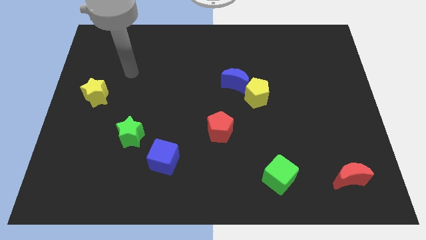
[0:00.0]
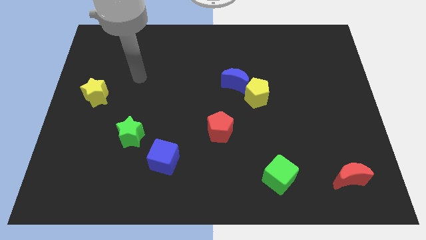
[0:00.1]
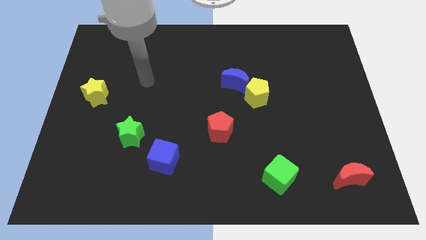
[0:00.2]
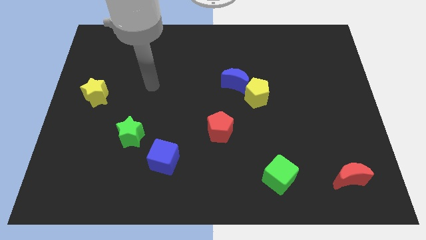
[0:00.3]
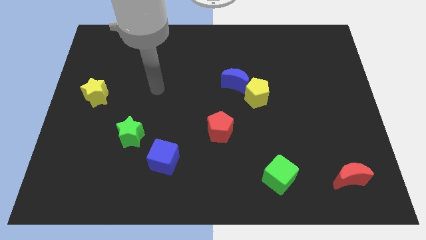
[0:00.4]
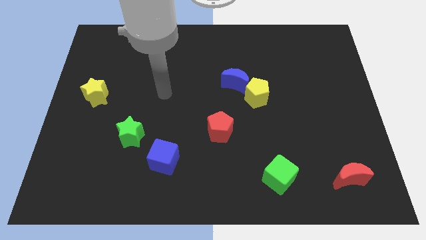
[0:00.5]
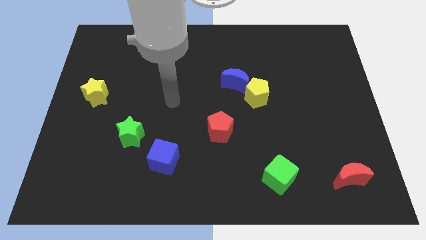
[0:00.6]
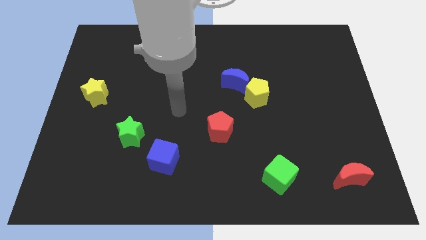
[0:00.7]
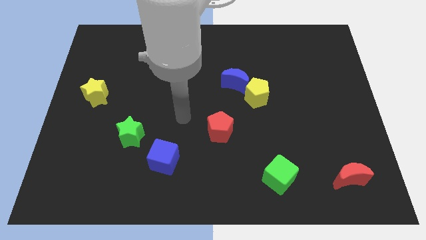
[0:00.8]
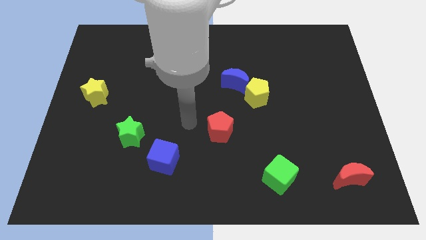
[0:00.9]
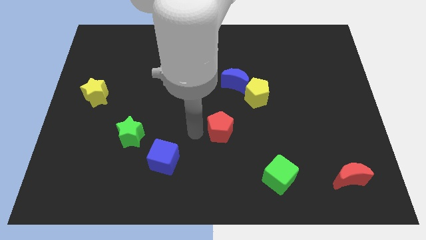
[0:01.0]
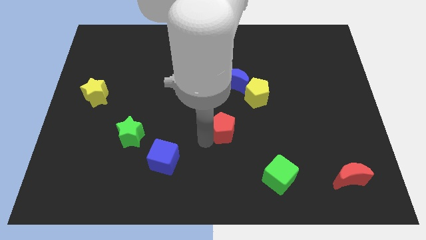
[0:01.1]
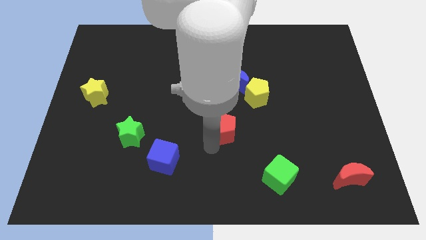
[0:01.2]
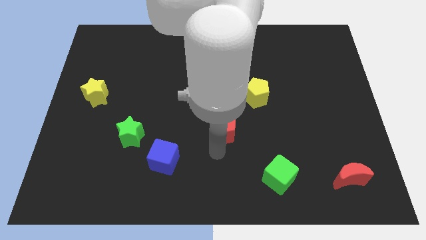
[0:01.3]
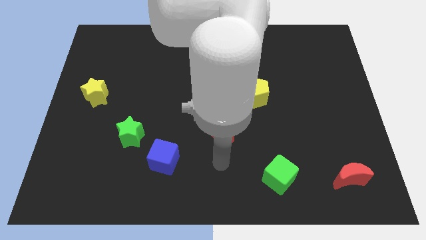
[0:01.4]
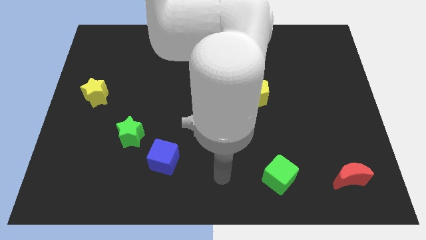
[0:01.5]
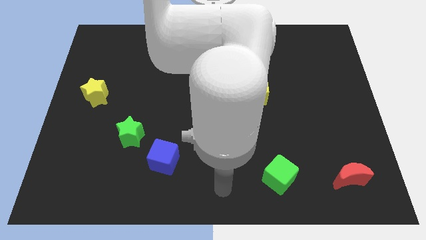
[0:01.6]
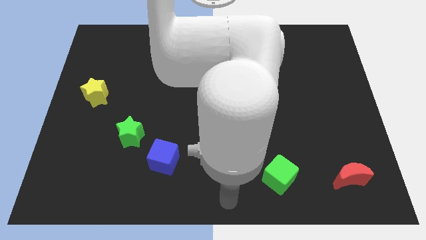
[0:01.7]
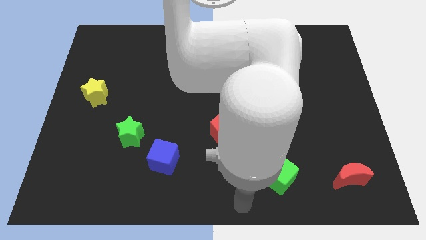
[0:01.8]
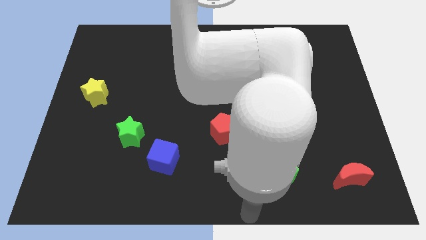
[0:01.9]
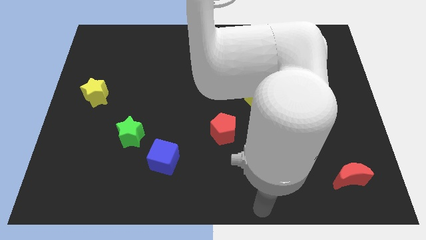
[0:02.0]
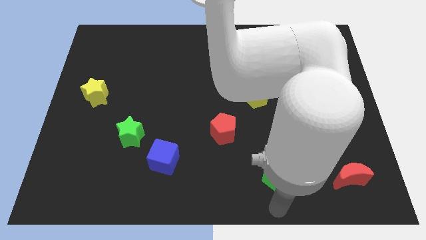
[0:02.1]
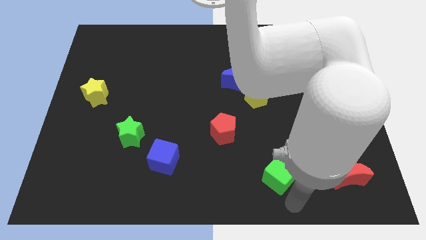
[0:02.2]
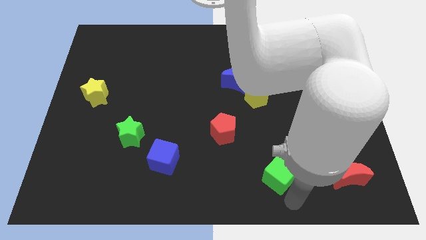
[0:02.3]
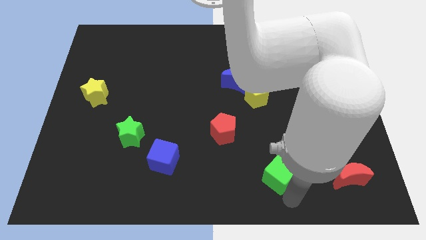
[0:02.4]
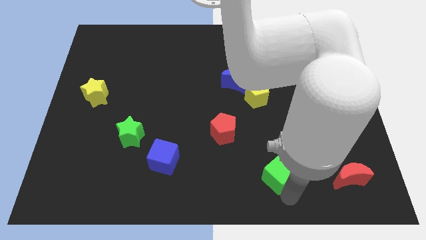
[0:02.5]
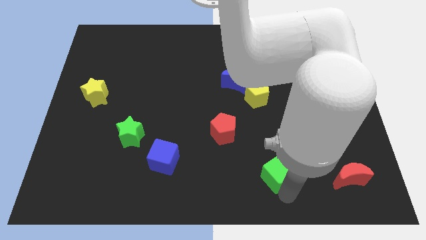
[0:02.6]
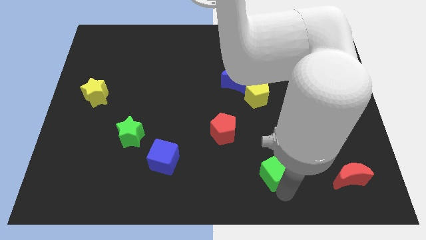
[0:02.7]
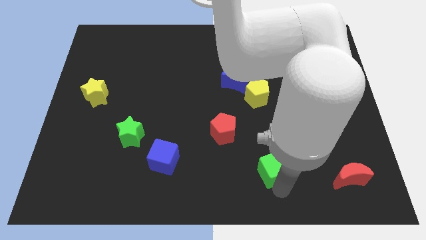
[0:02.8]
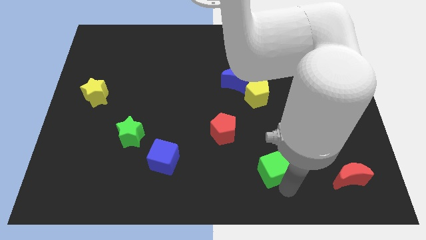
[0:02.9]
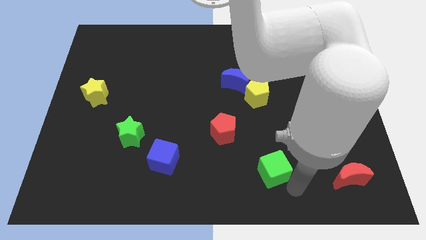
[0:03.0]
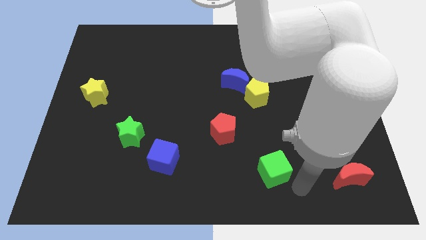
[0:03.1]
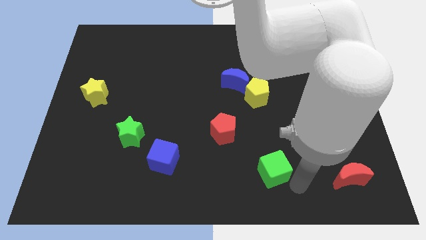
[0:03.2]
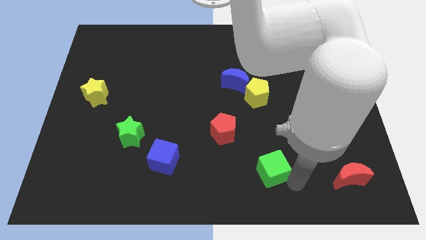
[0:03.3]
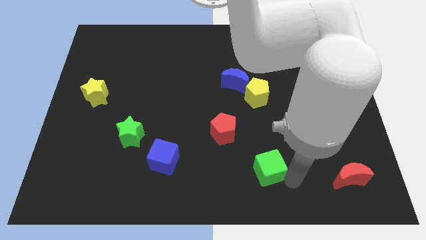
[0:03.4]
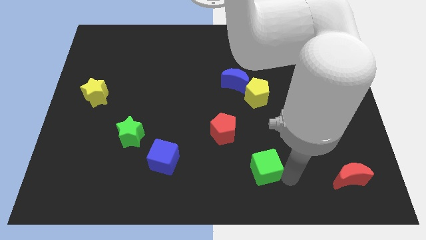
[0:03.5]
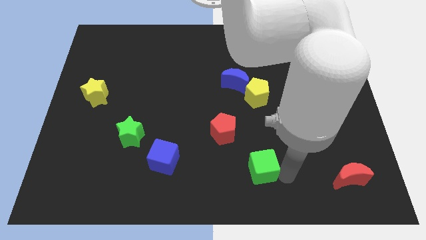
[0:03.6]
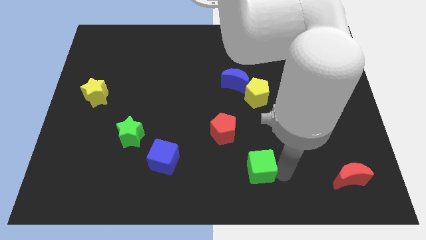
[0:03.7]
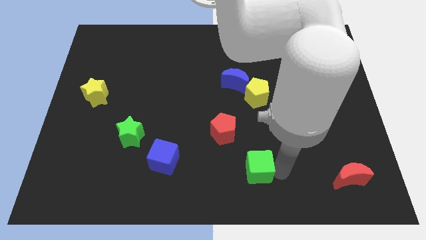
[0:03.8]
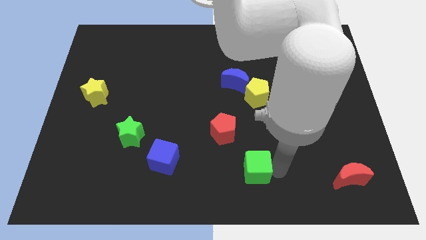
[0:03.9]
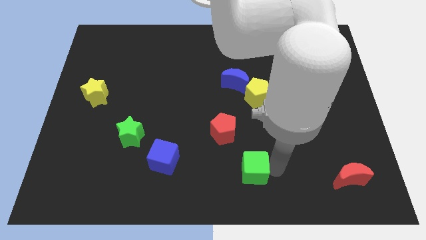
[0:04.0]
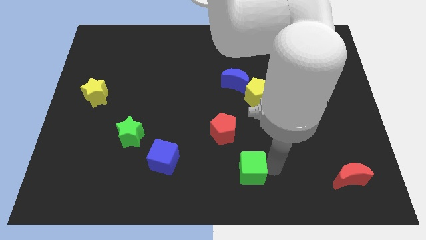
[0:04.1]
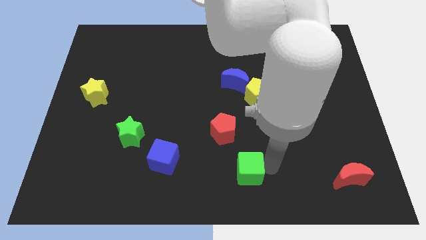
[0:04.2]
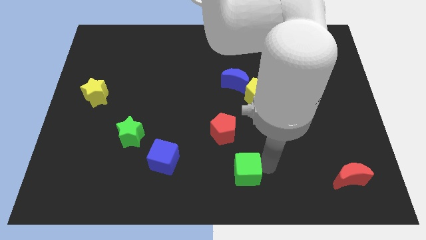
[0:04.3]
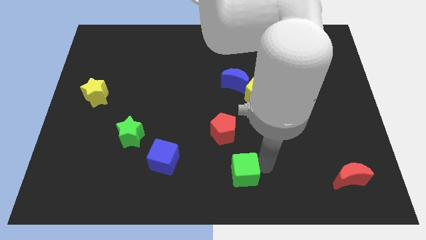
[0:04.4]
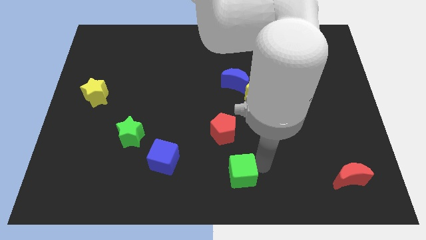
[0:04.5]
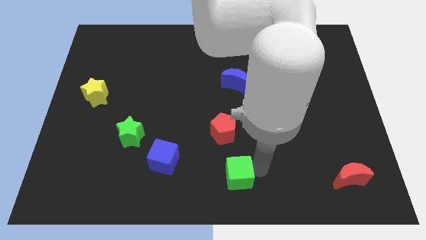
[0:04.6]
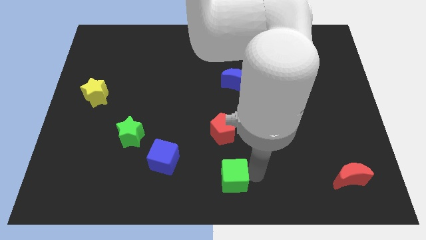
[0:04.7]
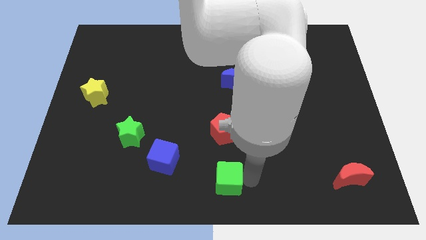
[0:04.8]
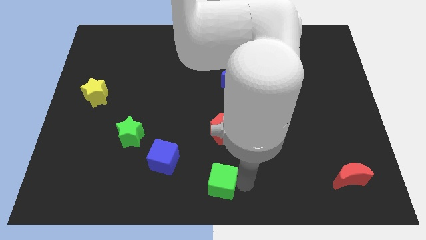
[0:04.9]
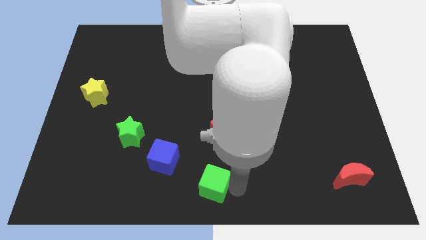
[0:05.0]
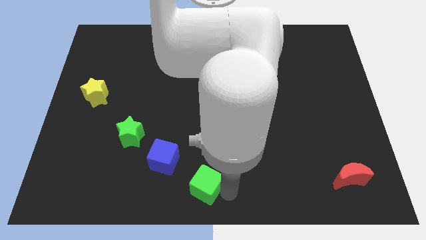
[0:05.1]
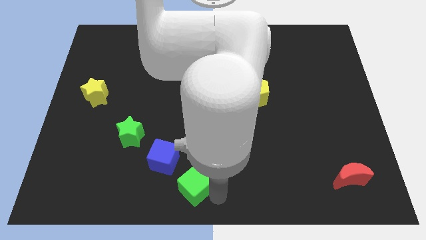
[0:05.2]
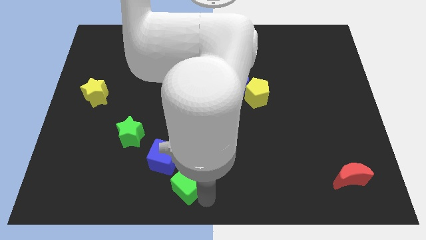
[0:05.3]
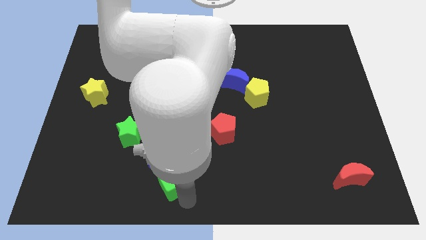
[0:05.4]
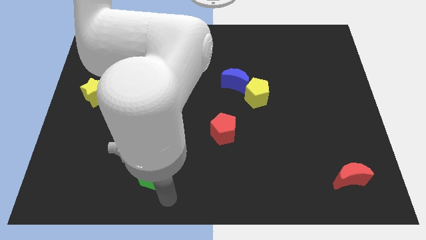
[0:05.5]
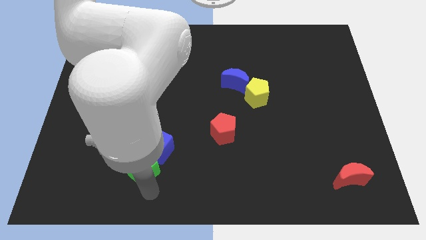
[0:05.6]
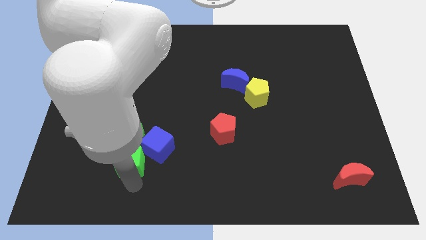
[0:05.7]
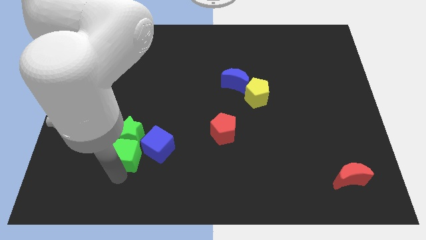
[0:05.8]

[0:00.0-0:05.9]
slide the green cube next to the green star
